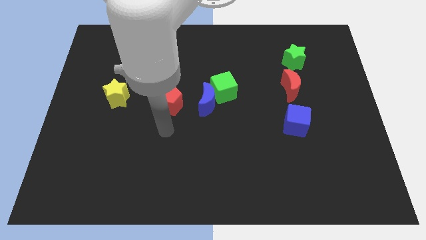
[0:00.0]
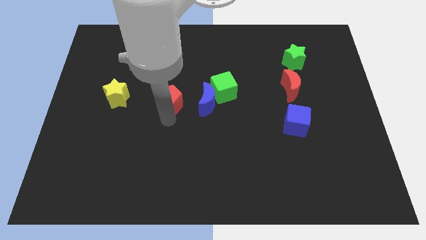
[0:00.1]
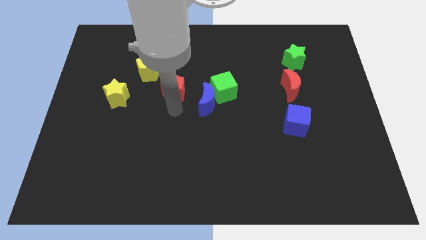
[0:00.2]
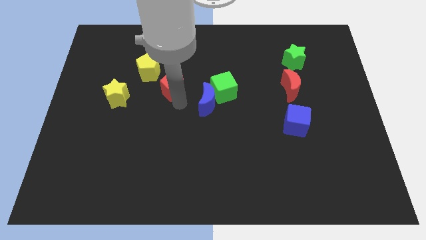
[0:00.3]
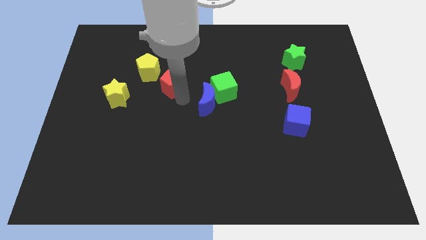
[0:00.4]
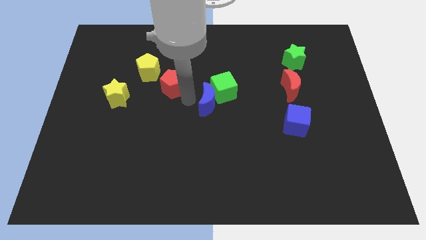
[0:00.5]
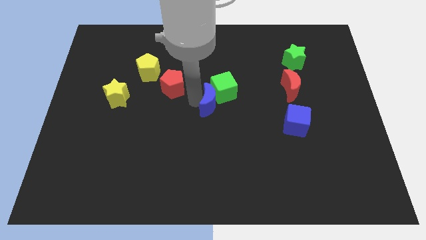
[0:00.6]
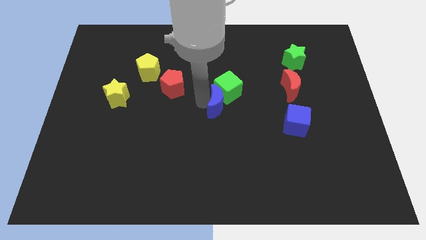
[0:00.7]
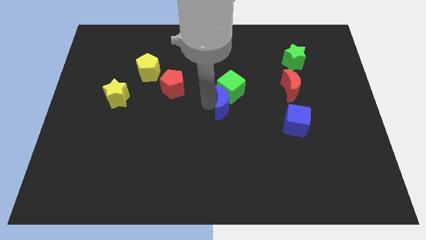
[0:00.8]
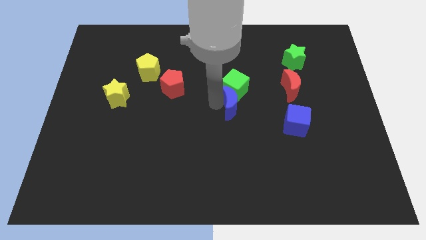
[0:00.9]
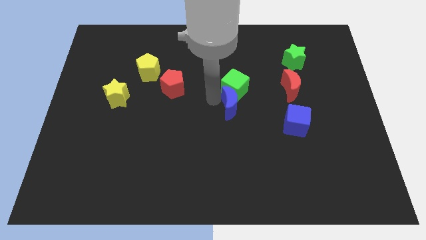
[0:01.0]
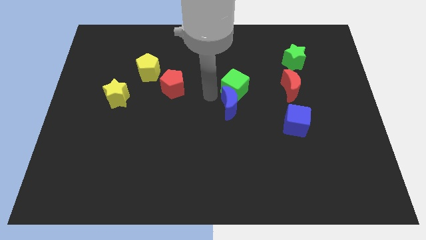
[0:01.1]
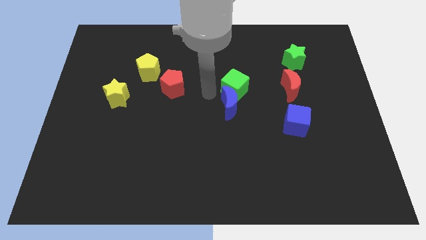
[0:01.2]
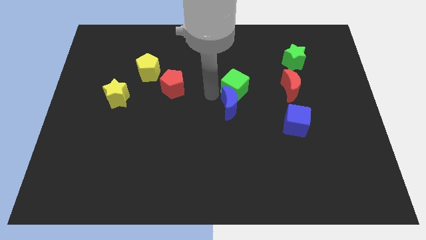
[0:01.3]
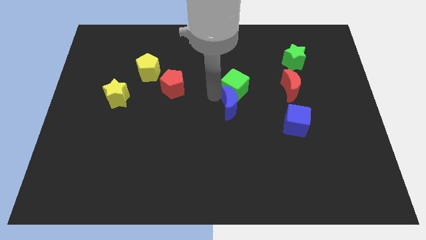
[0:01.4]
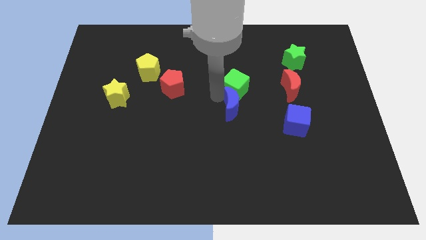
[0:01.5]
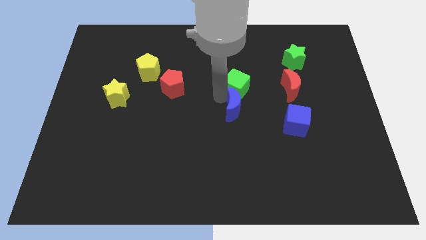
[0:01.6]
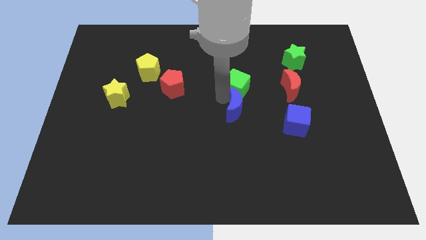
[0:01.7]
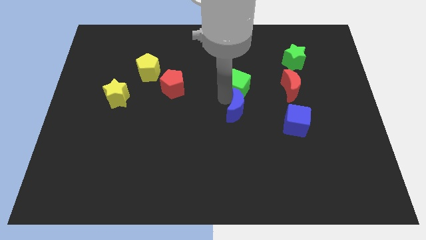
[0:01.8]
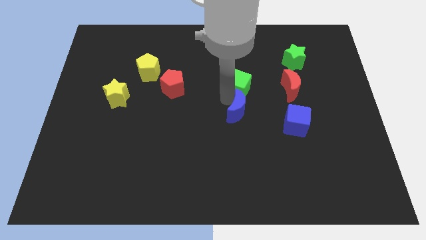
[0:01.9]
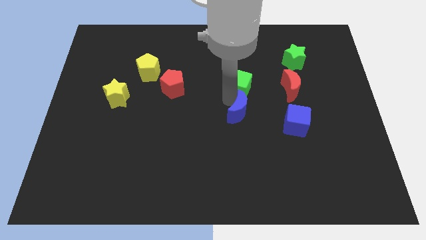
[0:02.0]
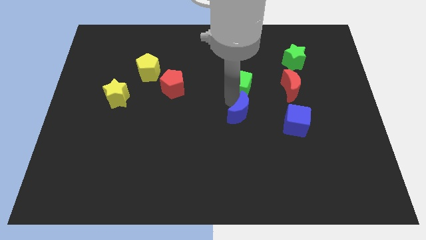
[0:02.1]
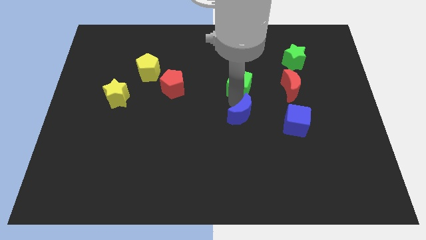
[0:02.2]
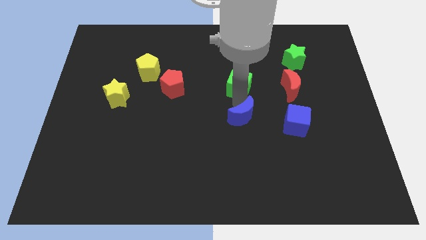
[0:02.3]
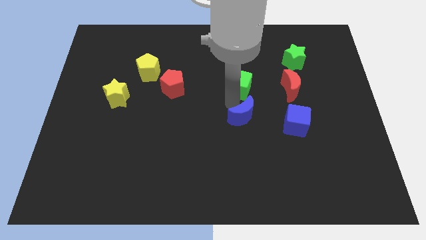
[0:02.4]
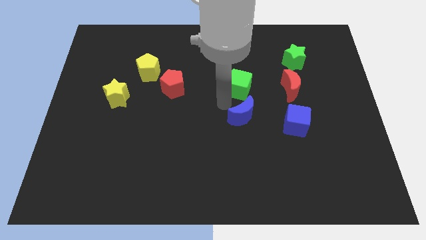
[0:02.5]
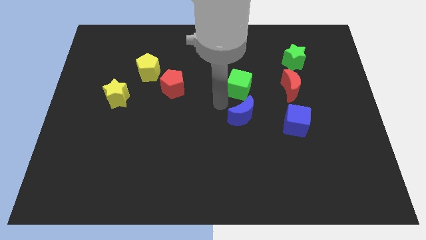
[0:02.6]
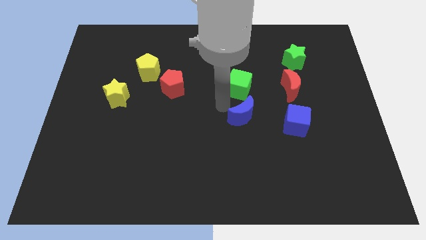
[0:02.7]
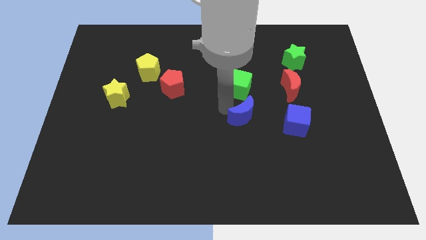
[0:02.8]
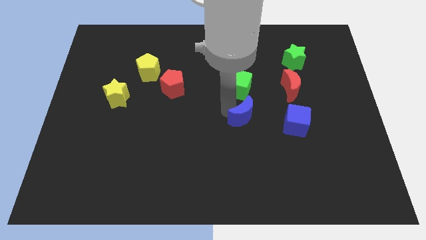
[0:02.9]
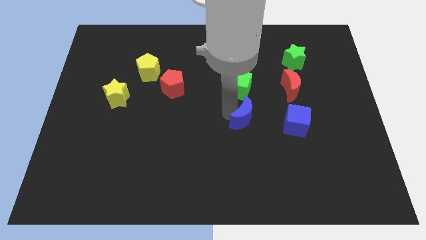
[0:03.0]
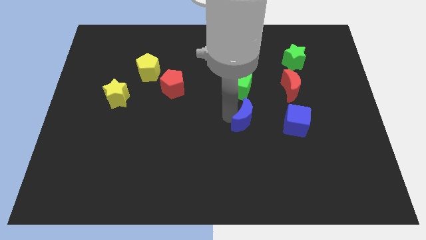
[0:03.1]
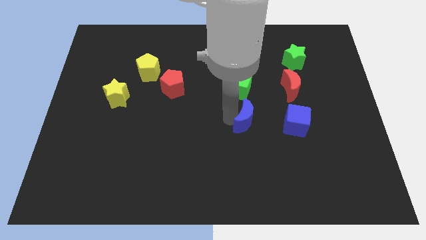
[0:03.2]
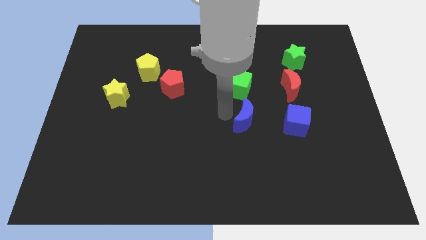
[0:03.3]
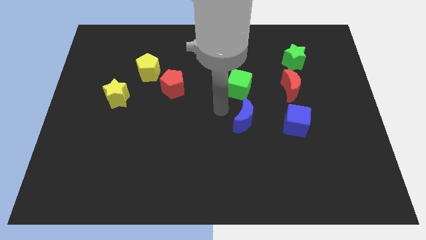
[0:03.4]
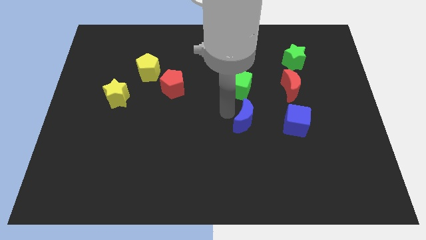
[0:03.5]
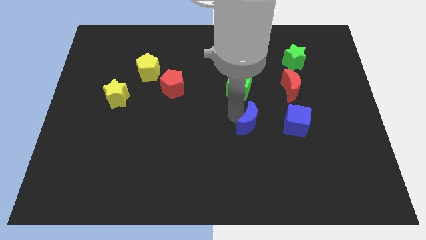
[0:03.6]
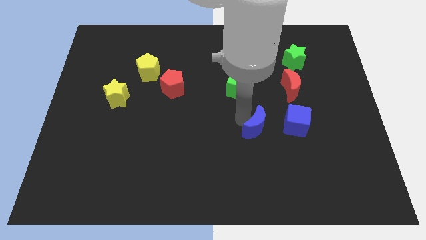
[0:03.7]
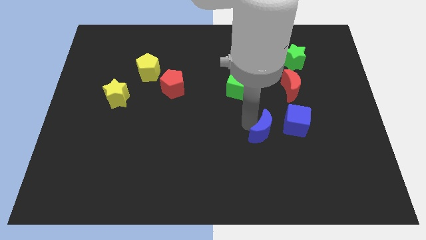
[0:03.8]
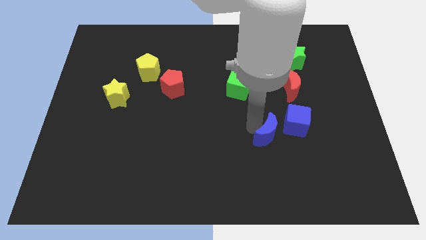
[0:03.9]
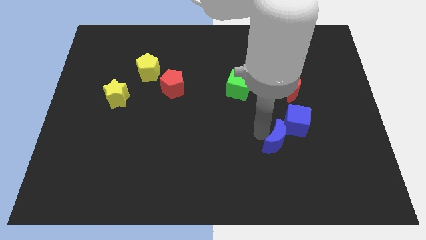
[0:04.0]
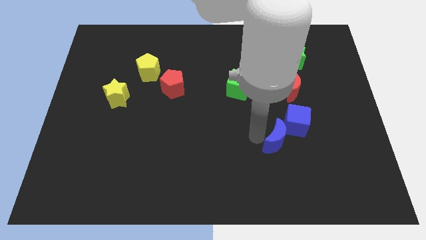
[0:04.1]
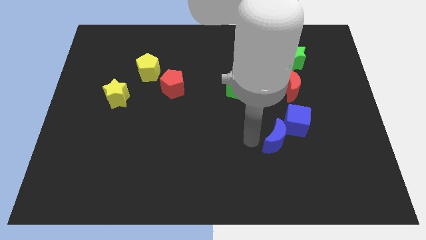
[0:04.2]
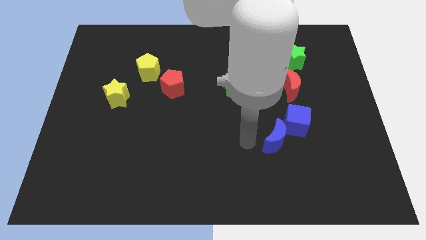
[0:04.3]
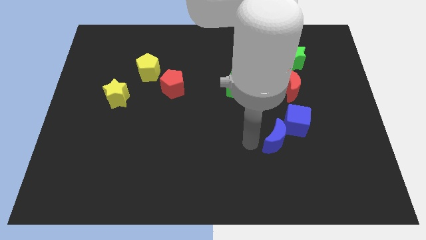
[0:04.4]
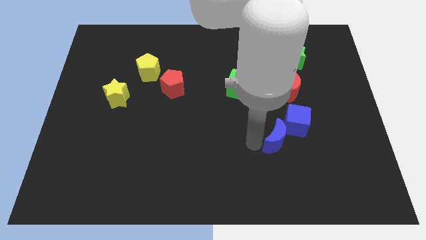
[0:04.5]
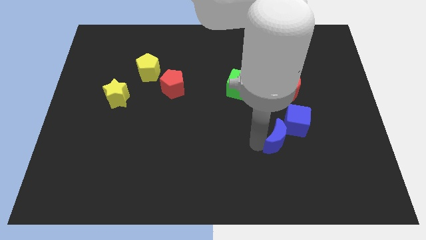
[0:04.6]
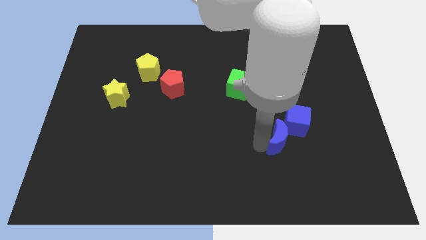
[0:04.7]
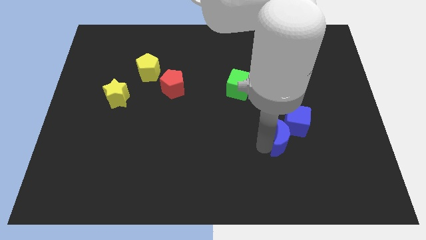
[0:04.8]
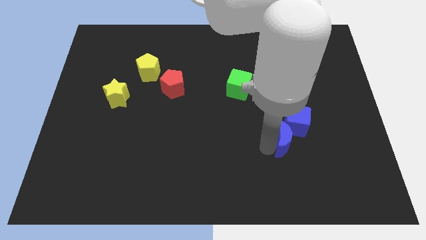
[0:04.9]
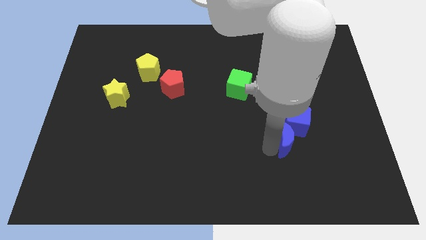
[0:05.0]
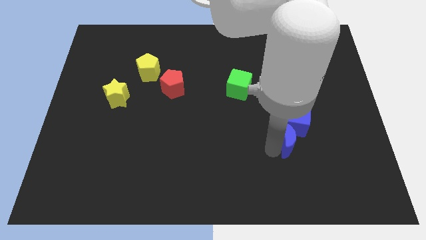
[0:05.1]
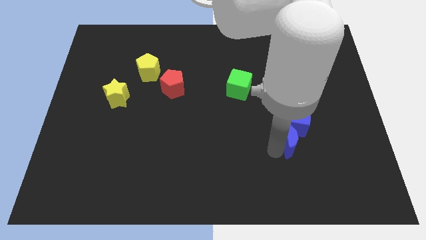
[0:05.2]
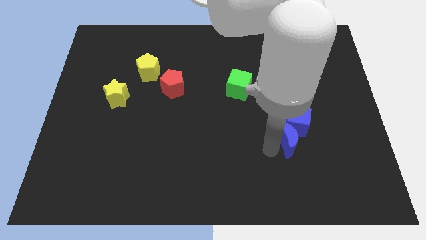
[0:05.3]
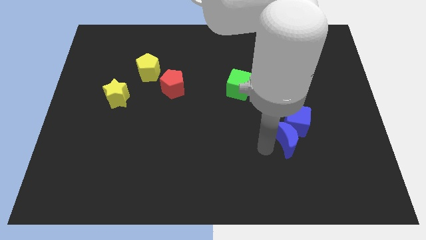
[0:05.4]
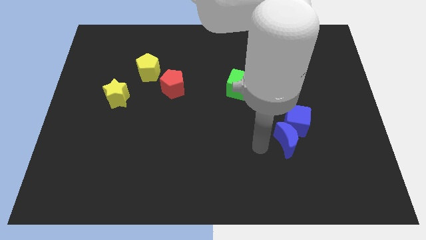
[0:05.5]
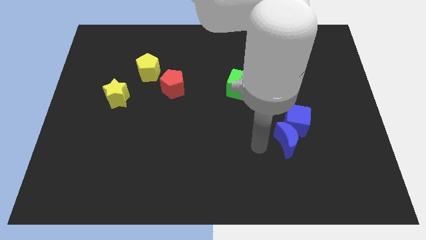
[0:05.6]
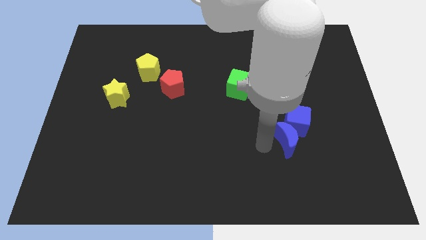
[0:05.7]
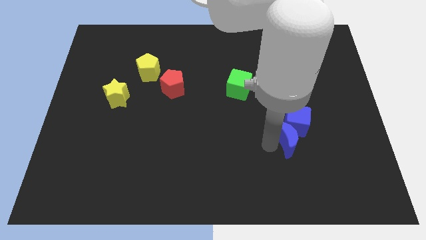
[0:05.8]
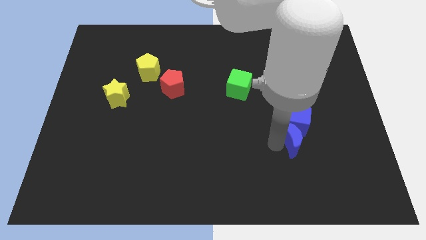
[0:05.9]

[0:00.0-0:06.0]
slide the blue moon to the bottom right side of the blue cube
